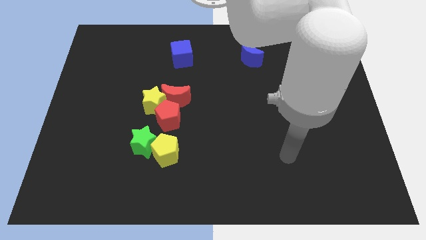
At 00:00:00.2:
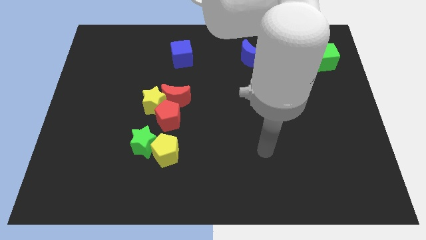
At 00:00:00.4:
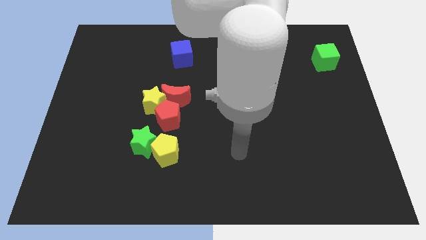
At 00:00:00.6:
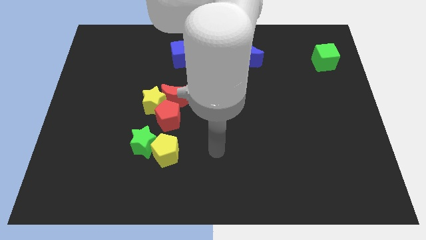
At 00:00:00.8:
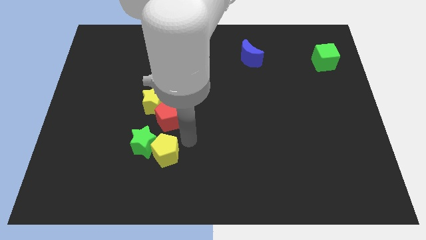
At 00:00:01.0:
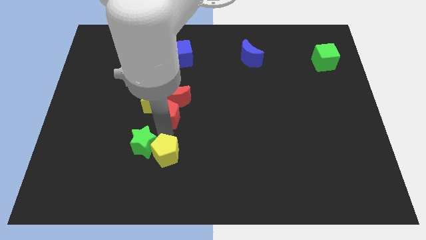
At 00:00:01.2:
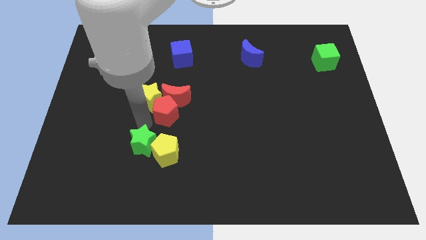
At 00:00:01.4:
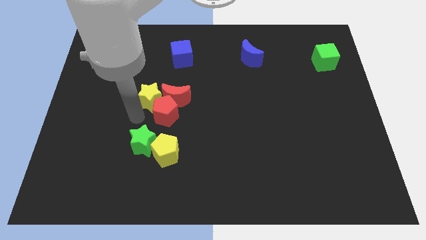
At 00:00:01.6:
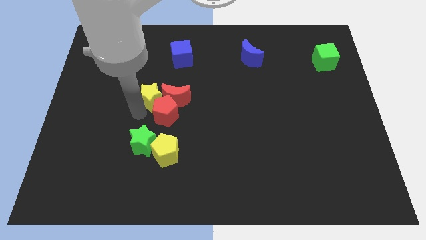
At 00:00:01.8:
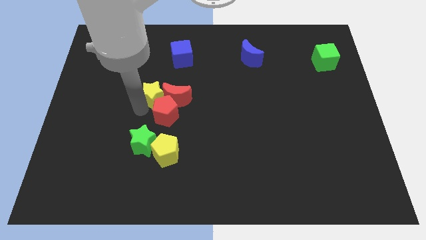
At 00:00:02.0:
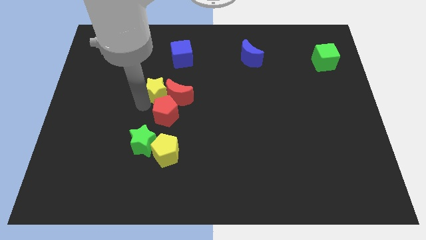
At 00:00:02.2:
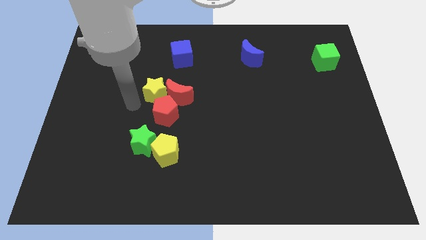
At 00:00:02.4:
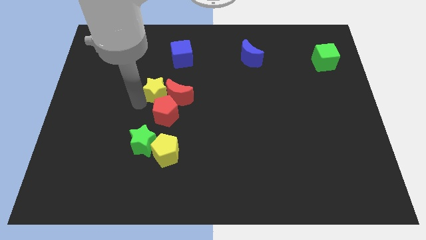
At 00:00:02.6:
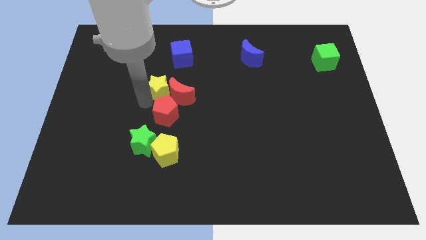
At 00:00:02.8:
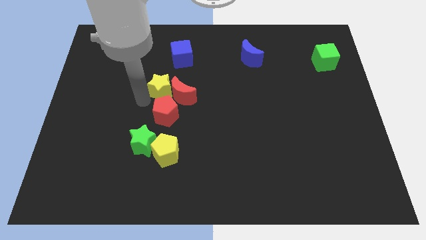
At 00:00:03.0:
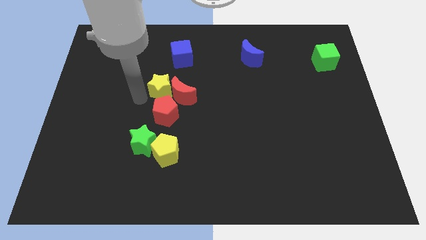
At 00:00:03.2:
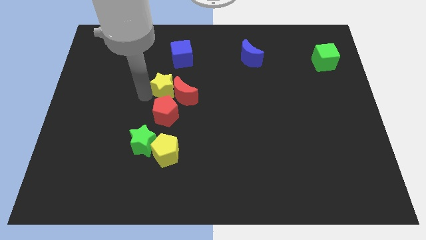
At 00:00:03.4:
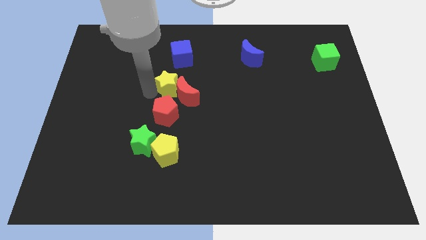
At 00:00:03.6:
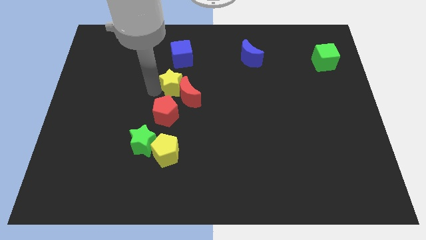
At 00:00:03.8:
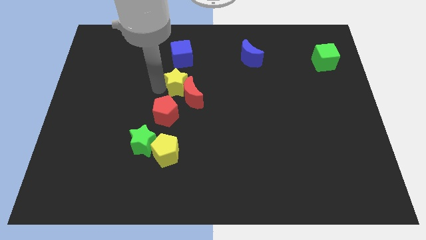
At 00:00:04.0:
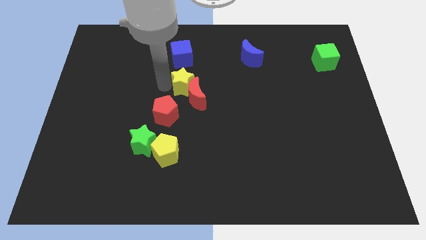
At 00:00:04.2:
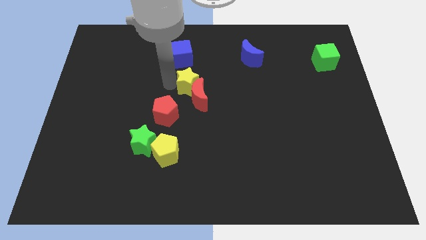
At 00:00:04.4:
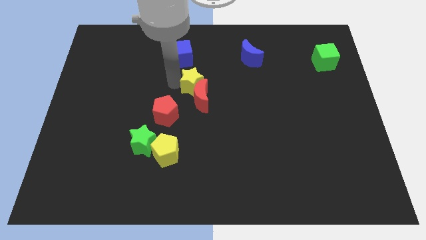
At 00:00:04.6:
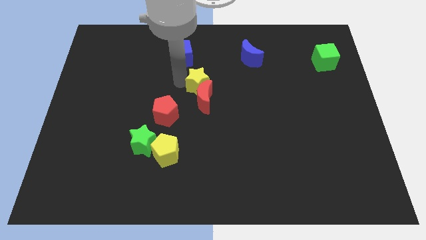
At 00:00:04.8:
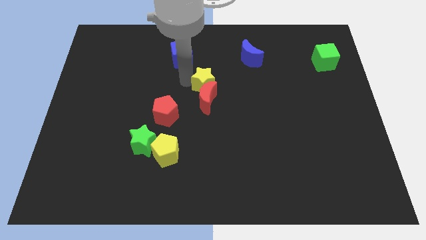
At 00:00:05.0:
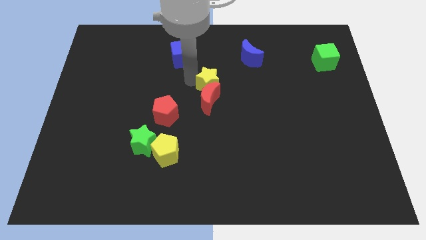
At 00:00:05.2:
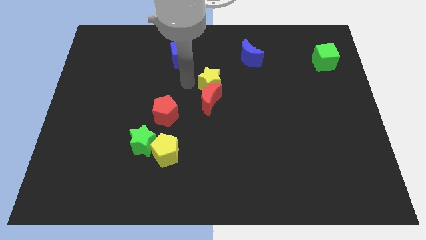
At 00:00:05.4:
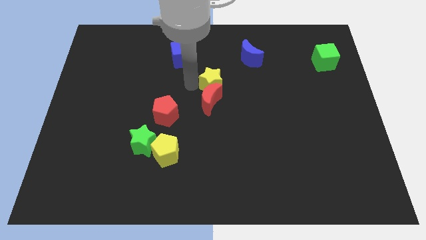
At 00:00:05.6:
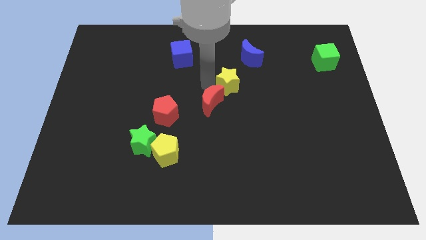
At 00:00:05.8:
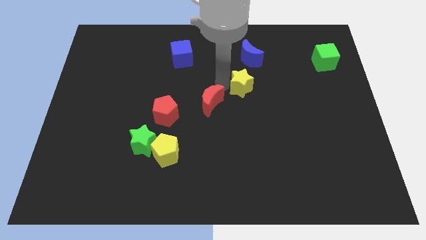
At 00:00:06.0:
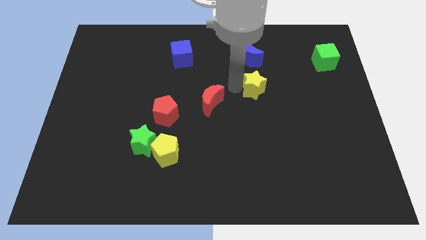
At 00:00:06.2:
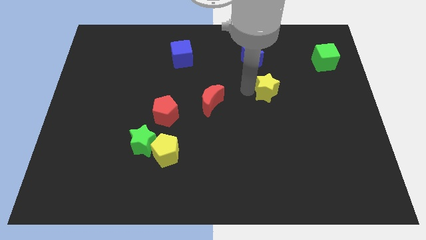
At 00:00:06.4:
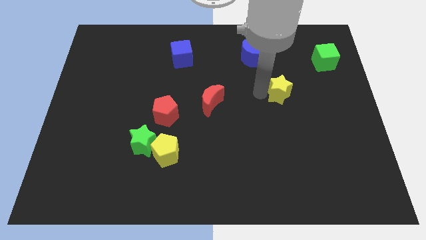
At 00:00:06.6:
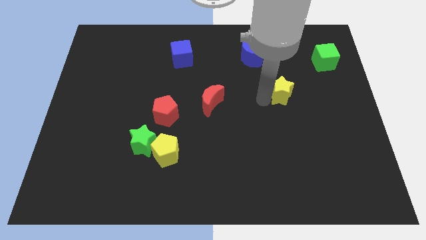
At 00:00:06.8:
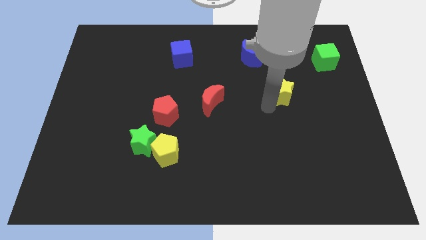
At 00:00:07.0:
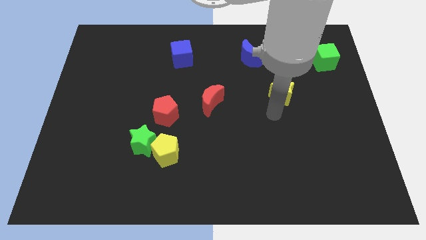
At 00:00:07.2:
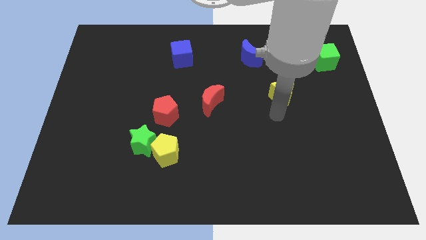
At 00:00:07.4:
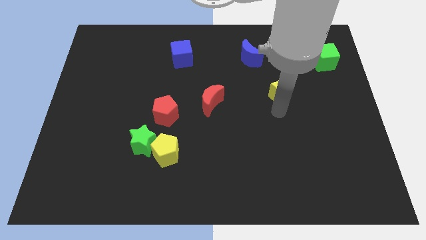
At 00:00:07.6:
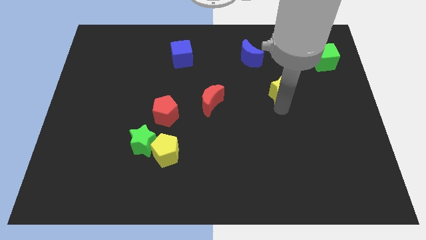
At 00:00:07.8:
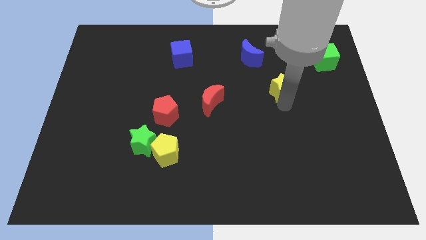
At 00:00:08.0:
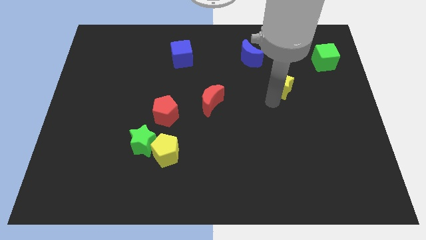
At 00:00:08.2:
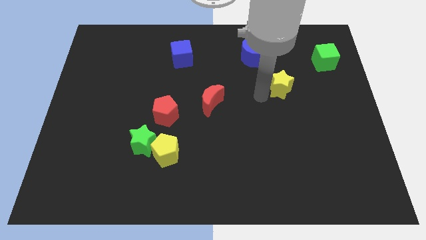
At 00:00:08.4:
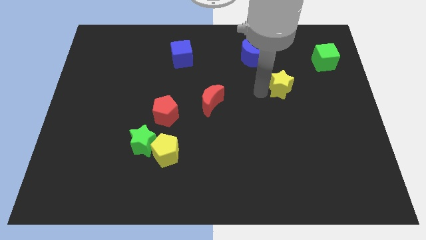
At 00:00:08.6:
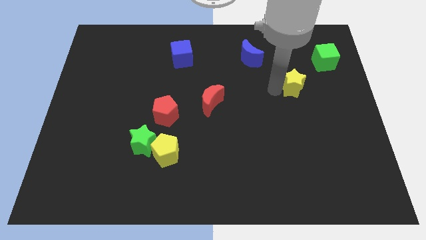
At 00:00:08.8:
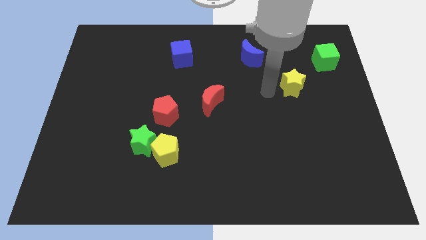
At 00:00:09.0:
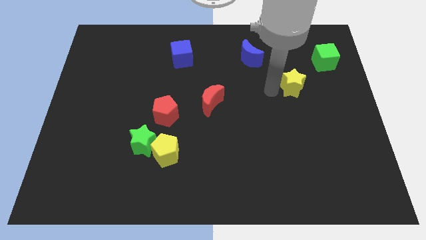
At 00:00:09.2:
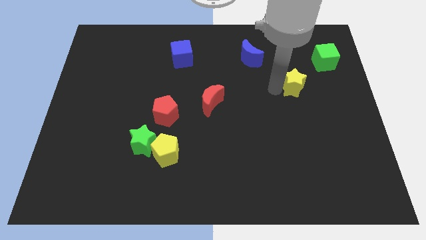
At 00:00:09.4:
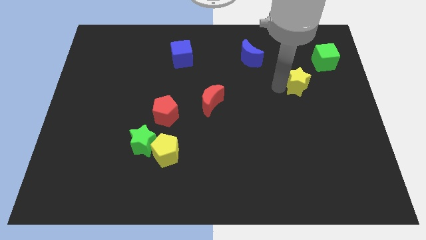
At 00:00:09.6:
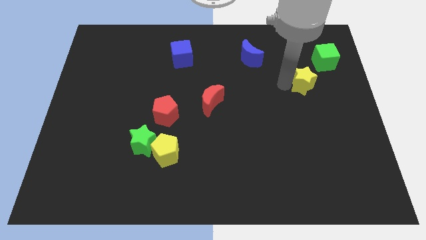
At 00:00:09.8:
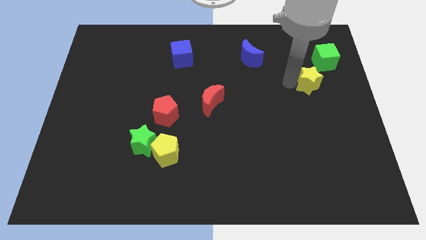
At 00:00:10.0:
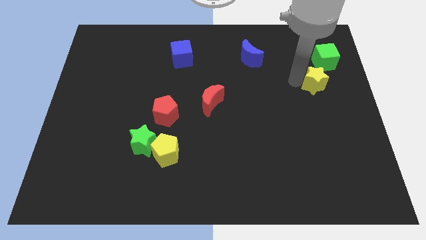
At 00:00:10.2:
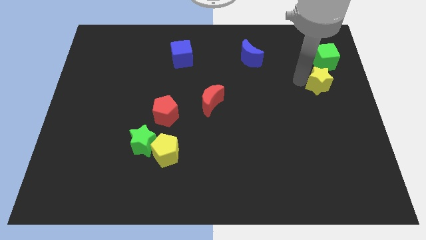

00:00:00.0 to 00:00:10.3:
move the yellow star to the center right
